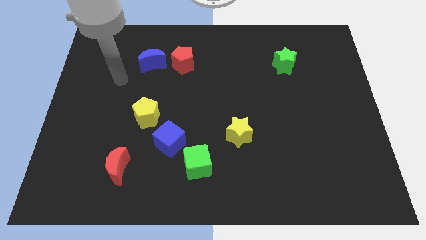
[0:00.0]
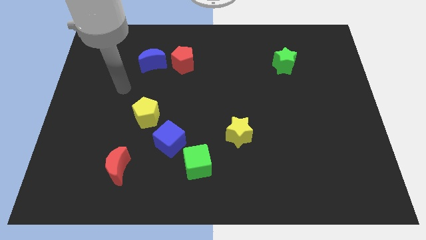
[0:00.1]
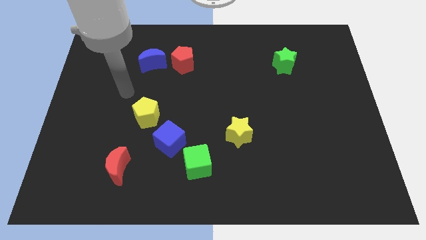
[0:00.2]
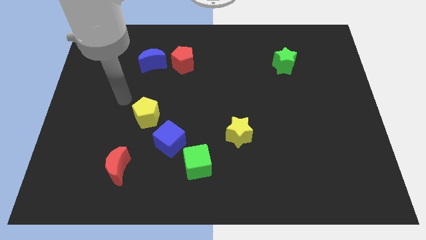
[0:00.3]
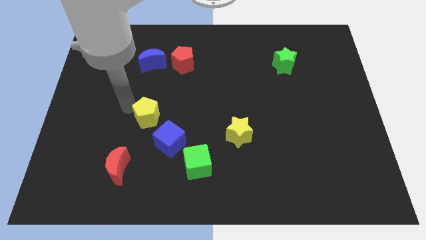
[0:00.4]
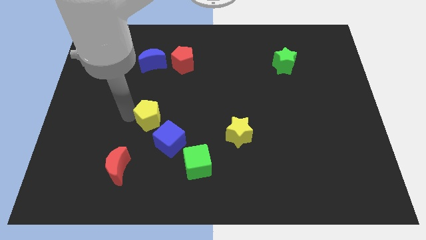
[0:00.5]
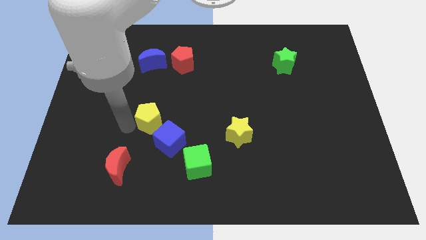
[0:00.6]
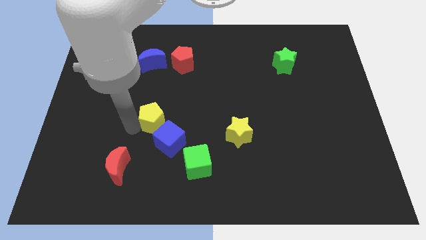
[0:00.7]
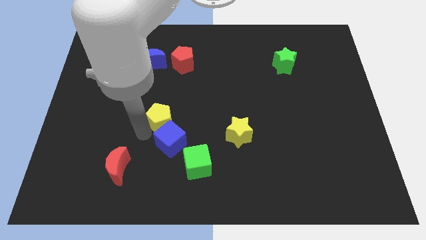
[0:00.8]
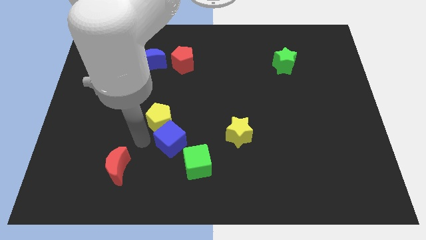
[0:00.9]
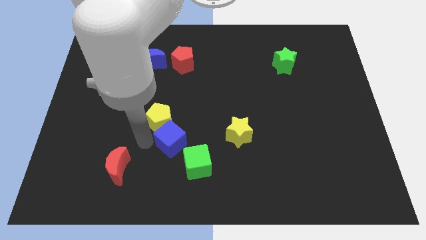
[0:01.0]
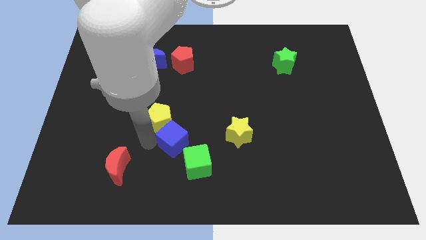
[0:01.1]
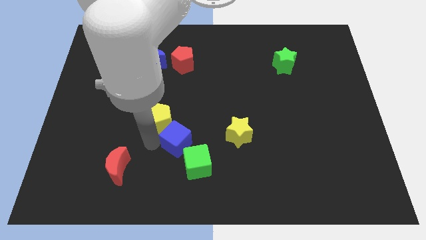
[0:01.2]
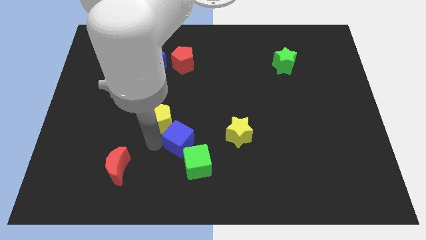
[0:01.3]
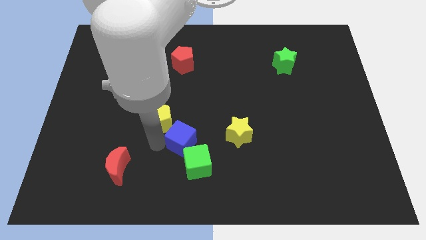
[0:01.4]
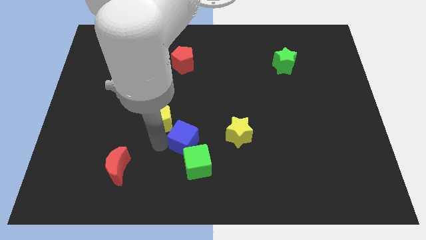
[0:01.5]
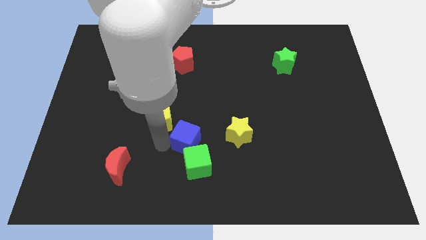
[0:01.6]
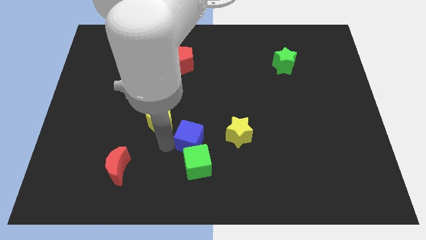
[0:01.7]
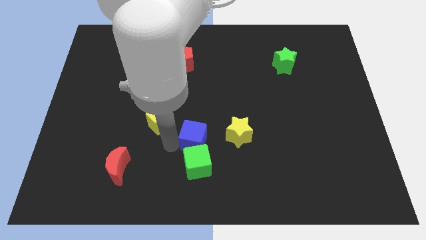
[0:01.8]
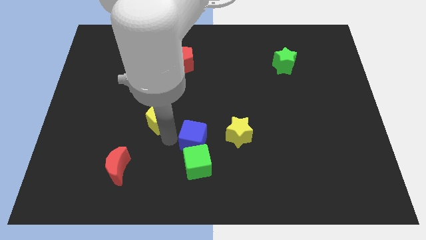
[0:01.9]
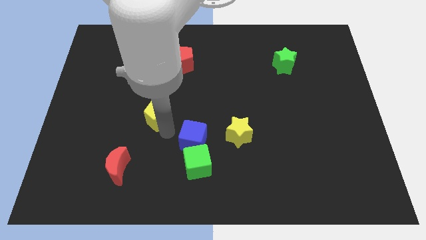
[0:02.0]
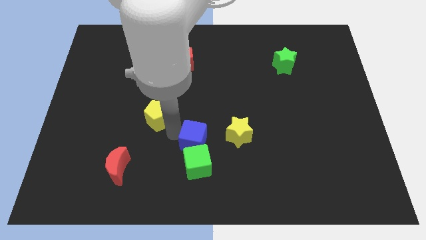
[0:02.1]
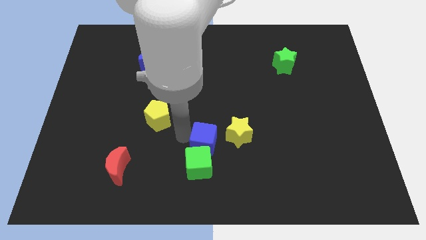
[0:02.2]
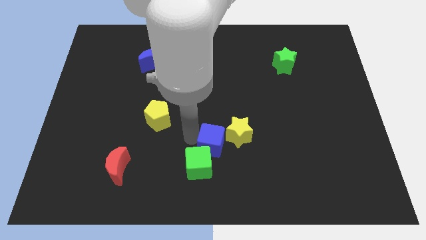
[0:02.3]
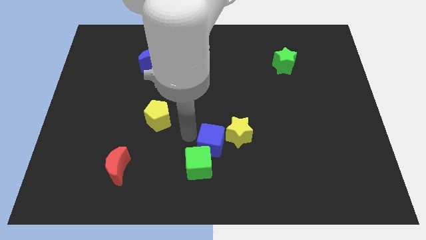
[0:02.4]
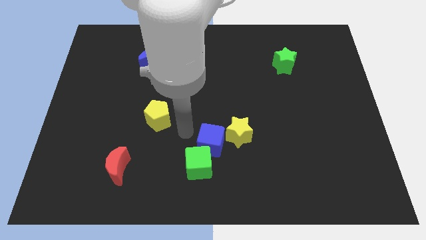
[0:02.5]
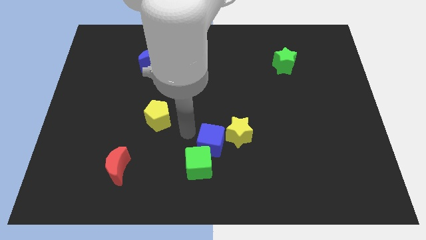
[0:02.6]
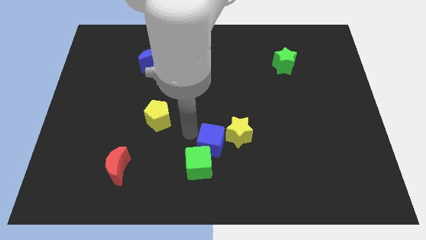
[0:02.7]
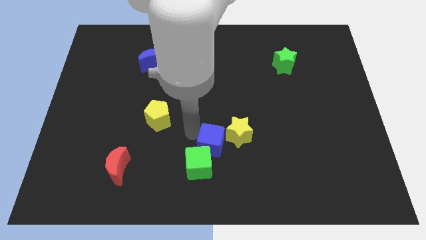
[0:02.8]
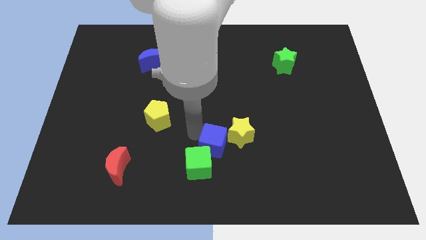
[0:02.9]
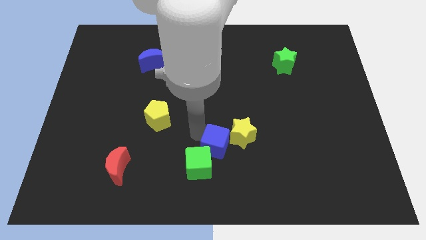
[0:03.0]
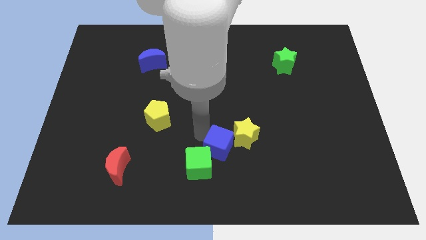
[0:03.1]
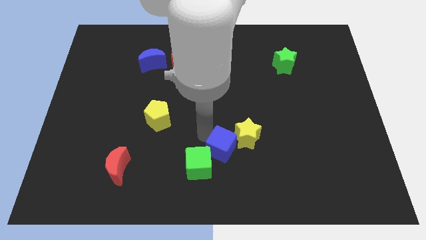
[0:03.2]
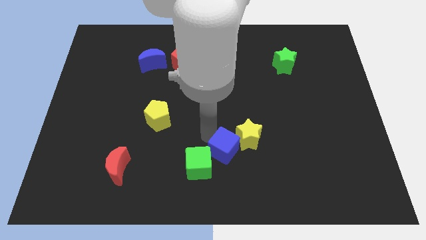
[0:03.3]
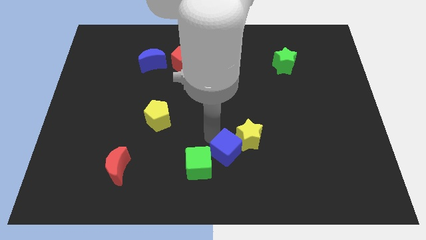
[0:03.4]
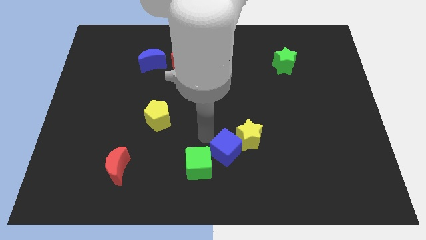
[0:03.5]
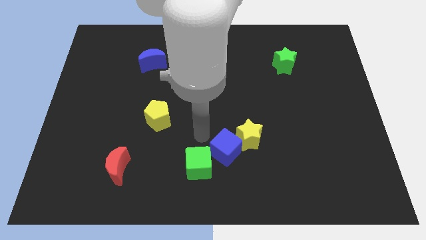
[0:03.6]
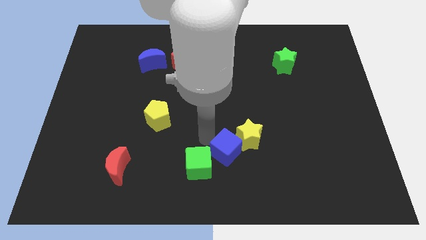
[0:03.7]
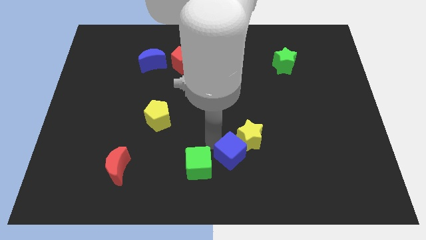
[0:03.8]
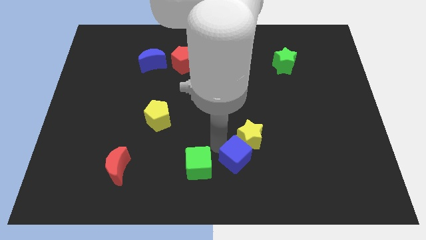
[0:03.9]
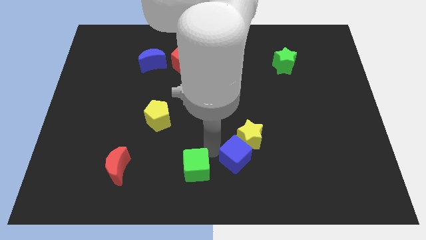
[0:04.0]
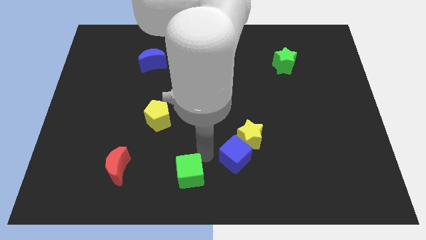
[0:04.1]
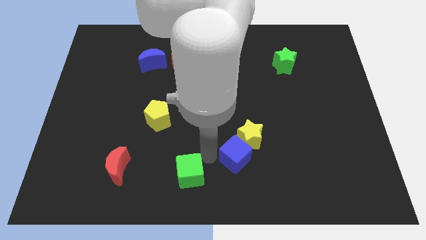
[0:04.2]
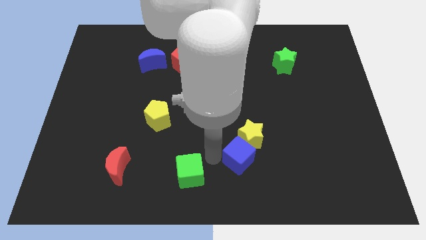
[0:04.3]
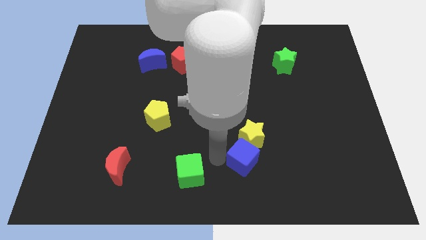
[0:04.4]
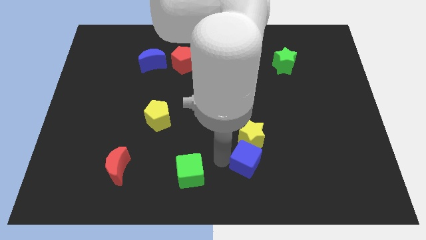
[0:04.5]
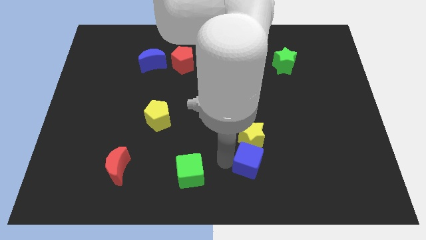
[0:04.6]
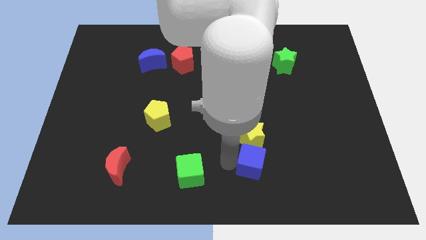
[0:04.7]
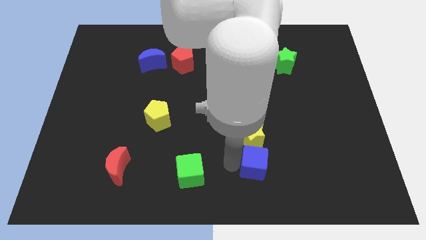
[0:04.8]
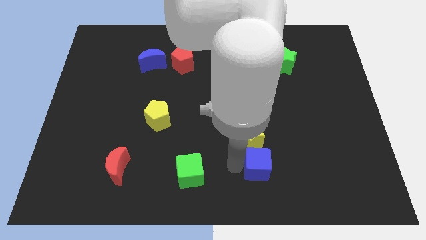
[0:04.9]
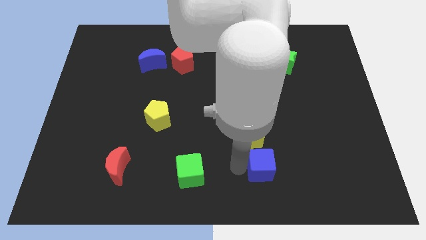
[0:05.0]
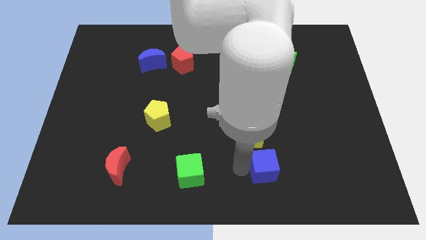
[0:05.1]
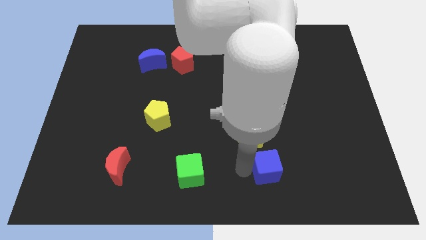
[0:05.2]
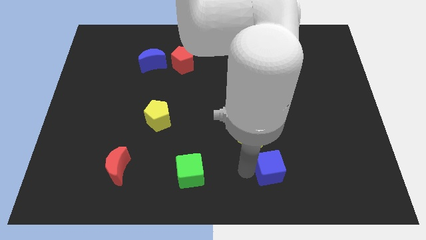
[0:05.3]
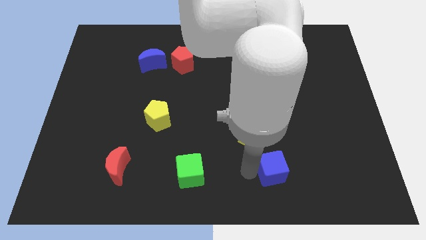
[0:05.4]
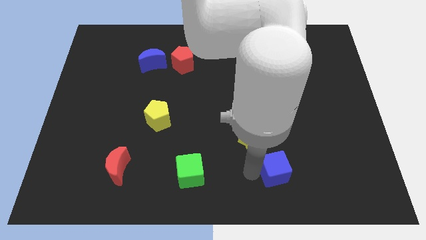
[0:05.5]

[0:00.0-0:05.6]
slide the blue cube to the right

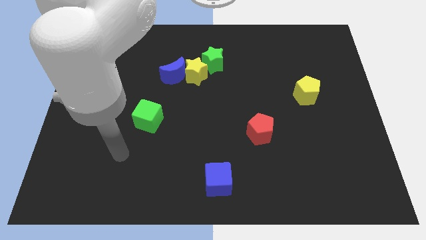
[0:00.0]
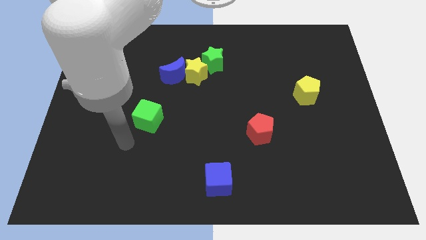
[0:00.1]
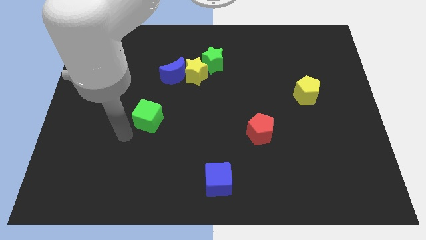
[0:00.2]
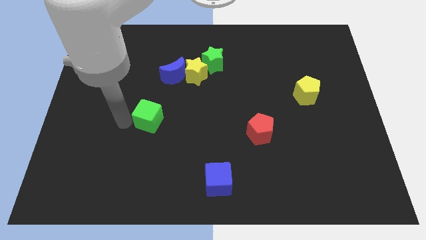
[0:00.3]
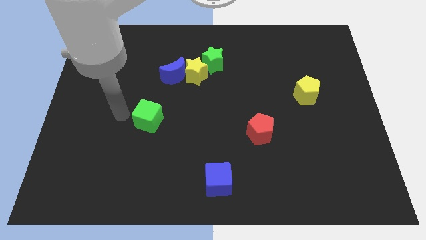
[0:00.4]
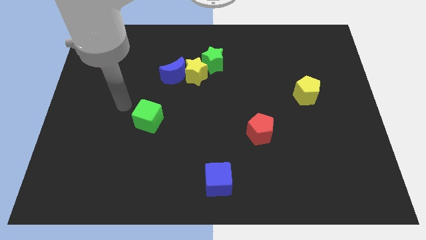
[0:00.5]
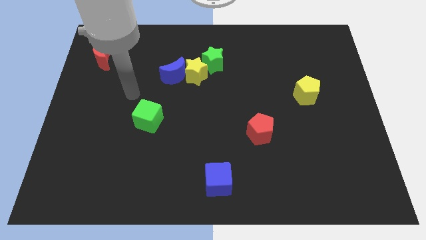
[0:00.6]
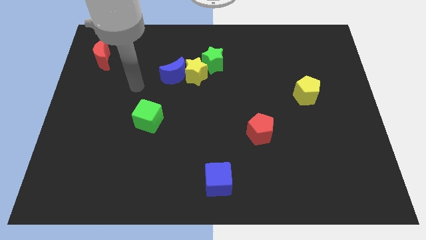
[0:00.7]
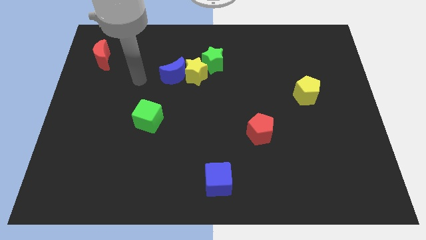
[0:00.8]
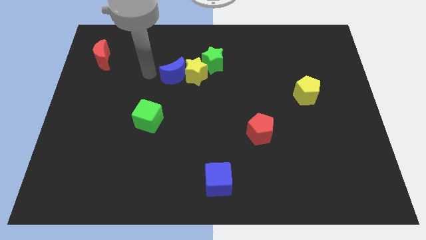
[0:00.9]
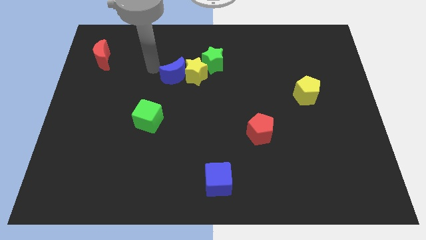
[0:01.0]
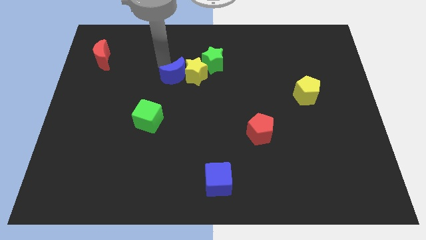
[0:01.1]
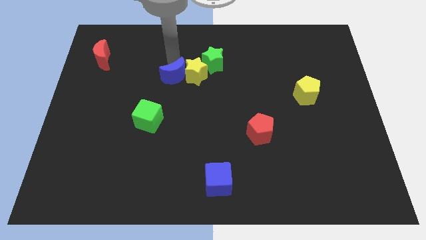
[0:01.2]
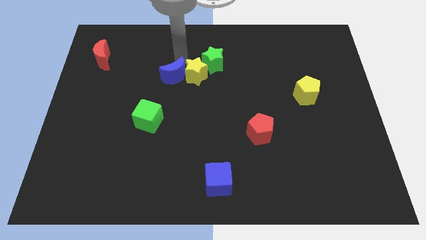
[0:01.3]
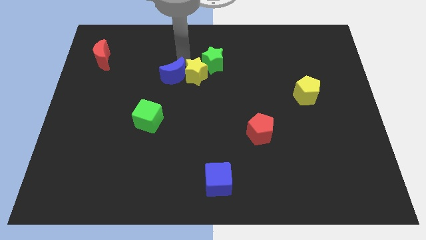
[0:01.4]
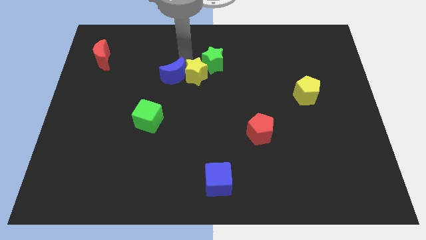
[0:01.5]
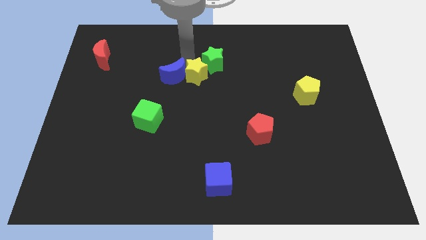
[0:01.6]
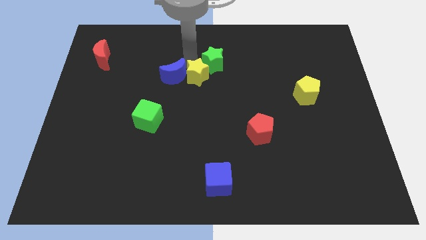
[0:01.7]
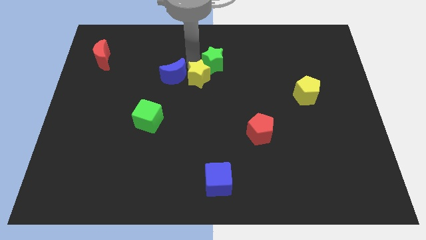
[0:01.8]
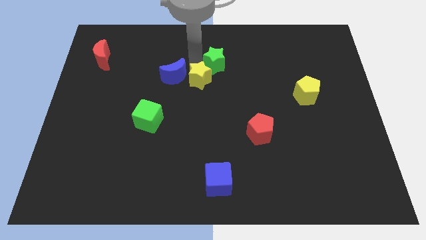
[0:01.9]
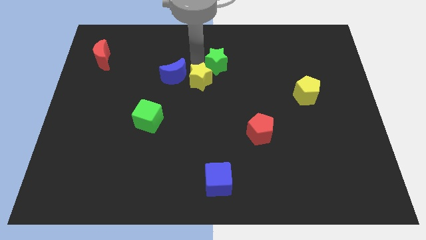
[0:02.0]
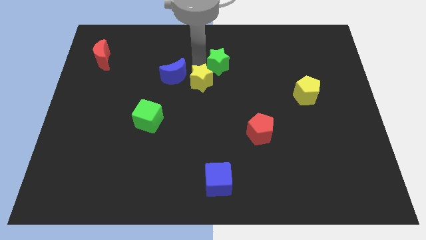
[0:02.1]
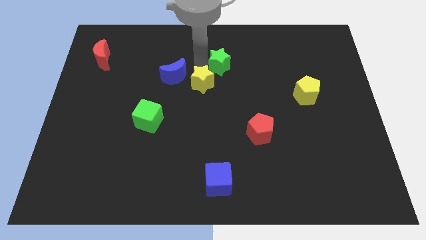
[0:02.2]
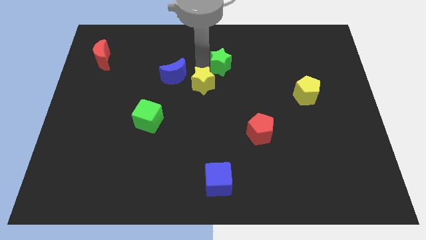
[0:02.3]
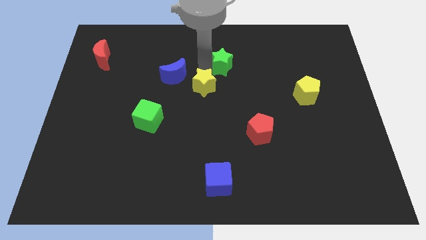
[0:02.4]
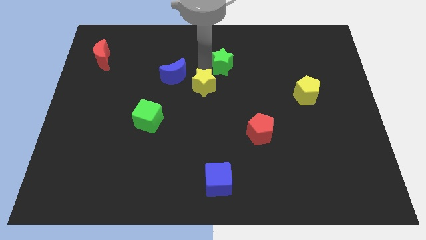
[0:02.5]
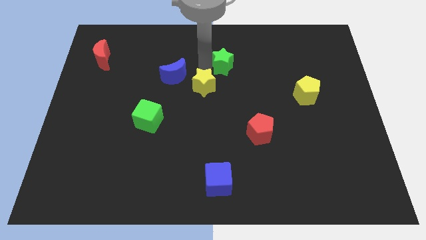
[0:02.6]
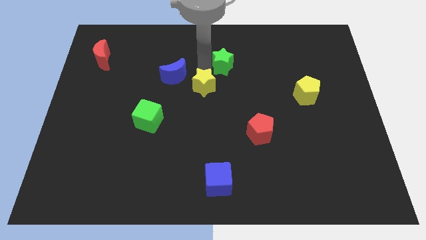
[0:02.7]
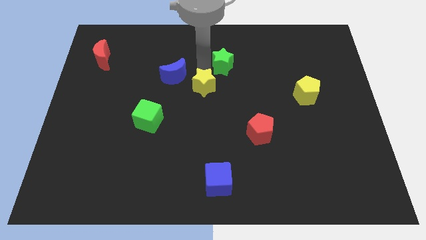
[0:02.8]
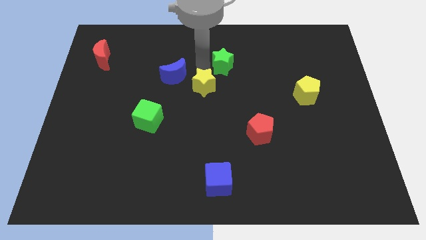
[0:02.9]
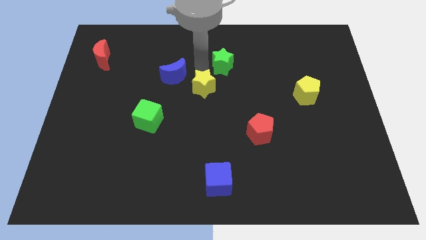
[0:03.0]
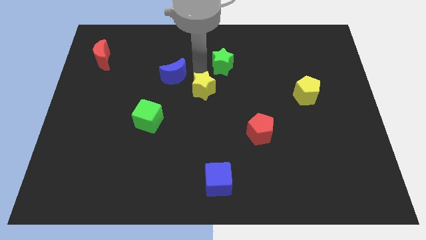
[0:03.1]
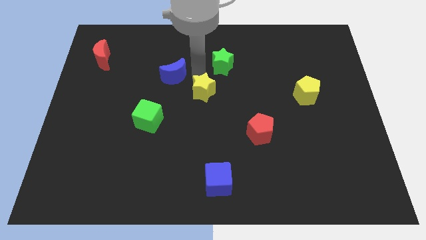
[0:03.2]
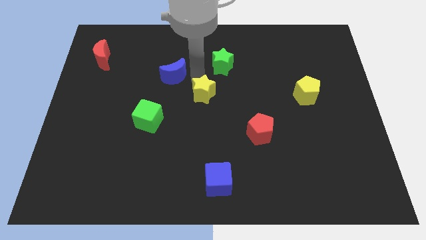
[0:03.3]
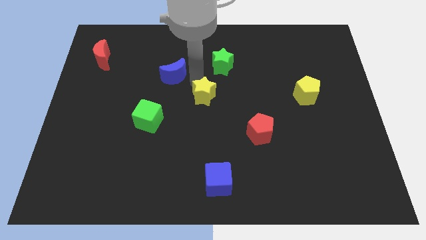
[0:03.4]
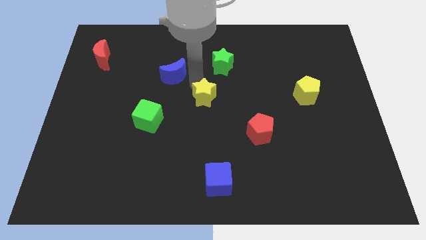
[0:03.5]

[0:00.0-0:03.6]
slightly move the yellow star down
